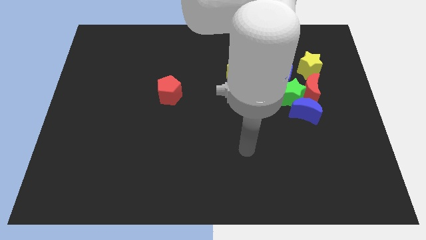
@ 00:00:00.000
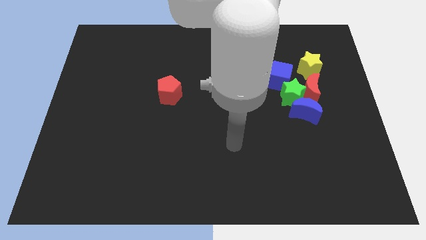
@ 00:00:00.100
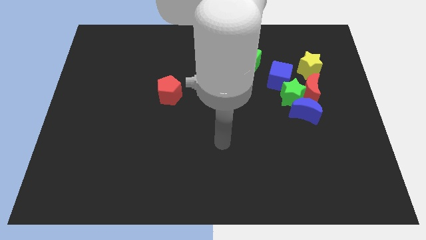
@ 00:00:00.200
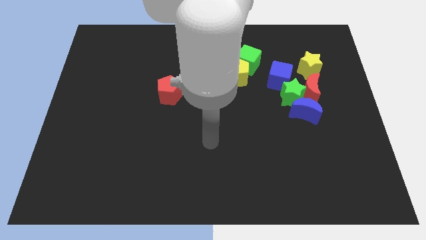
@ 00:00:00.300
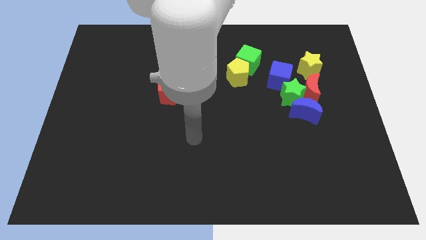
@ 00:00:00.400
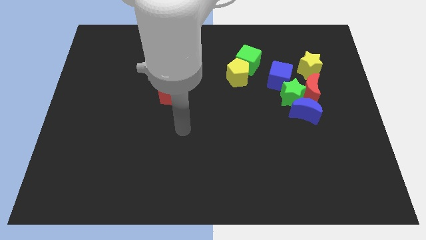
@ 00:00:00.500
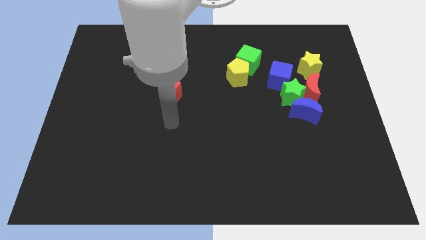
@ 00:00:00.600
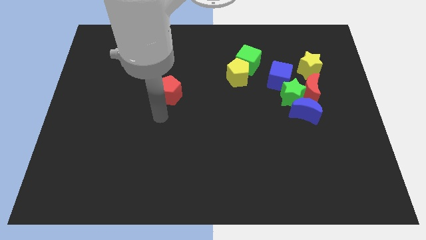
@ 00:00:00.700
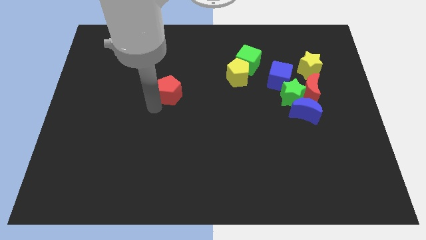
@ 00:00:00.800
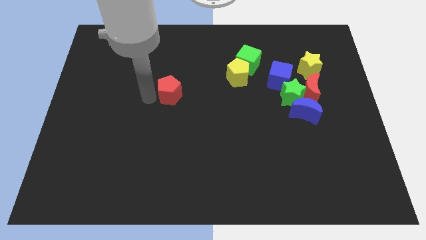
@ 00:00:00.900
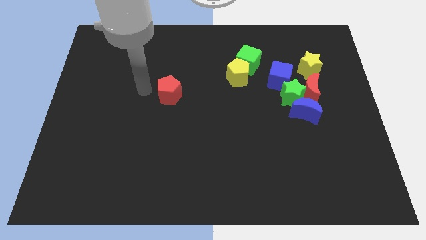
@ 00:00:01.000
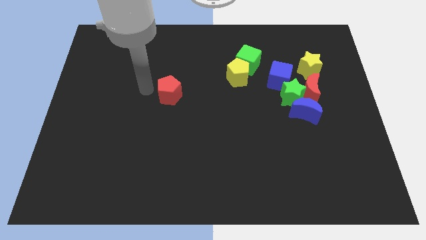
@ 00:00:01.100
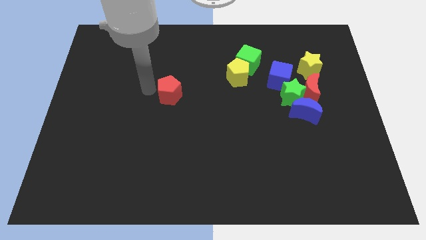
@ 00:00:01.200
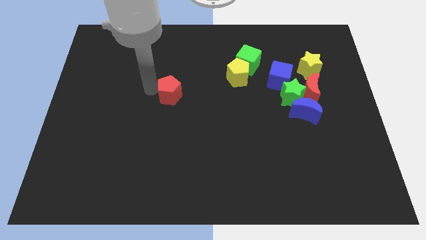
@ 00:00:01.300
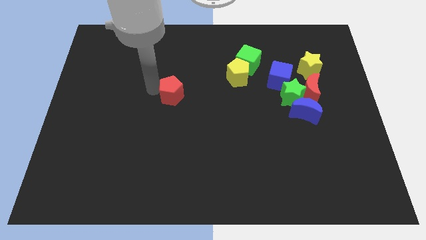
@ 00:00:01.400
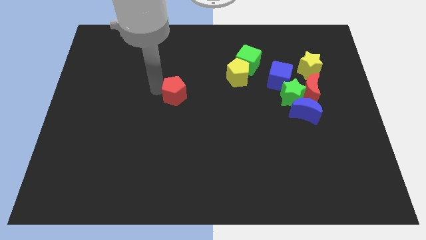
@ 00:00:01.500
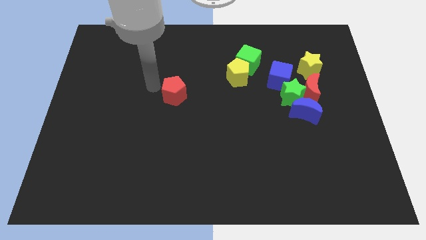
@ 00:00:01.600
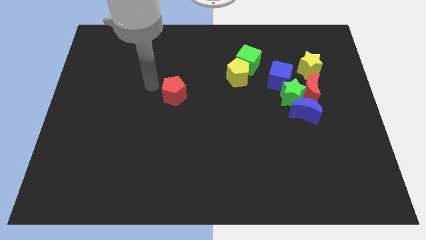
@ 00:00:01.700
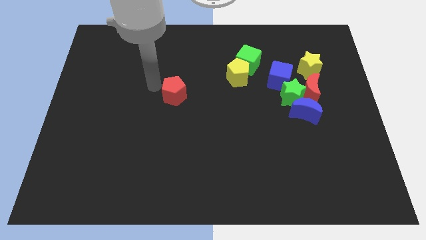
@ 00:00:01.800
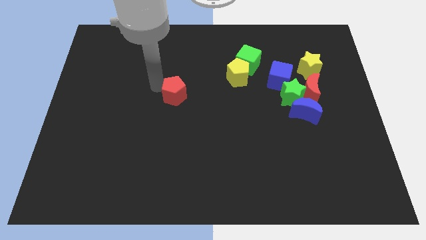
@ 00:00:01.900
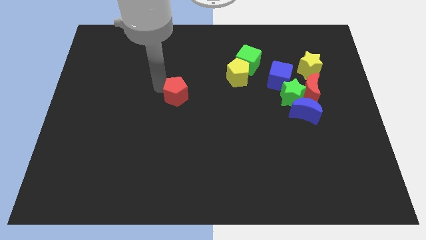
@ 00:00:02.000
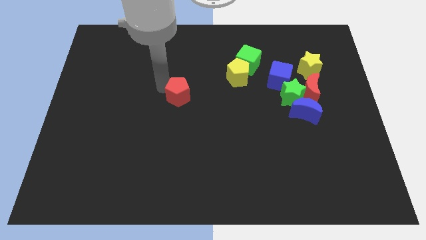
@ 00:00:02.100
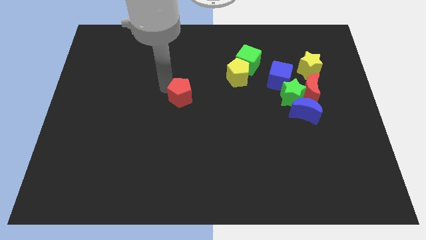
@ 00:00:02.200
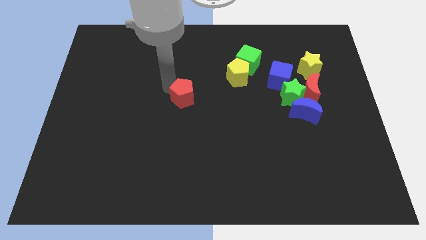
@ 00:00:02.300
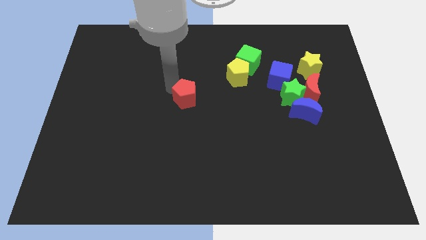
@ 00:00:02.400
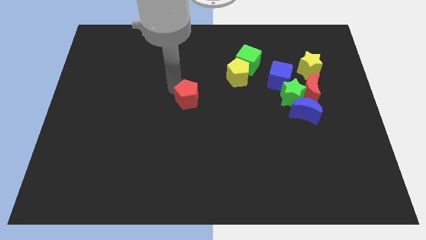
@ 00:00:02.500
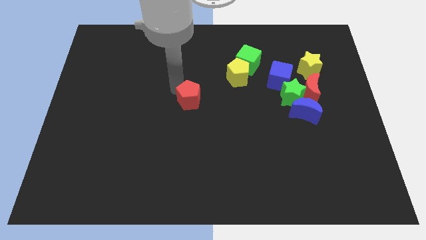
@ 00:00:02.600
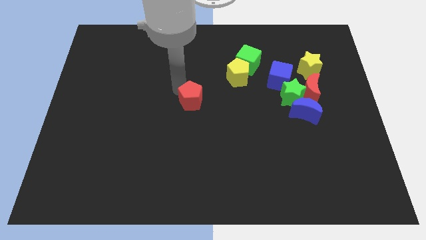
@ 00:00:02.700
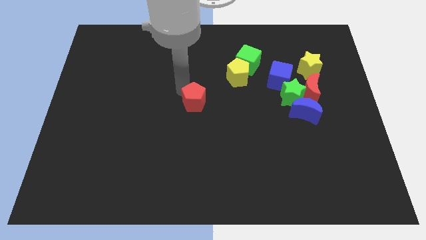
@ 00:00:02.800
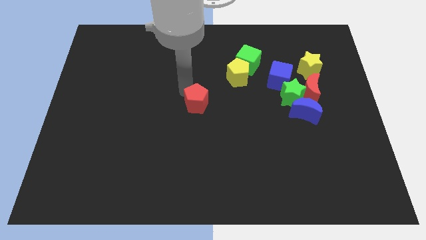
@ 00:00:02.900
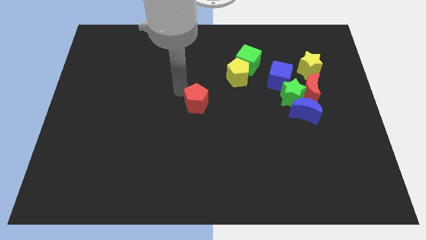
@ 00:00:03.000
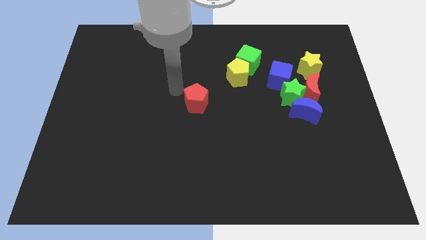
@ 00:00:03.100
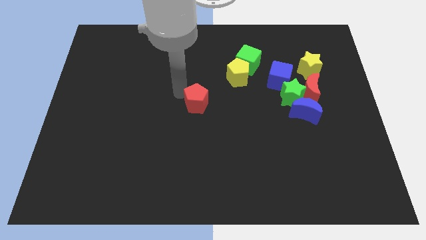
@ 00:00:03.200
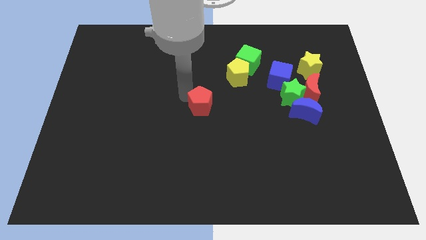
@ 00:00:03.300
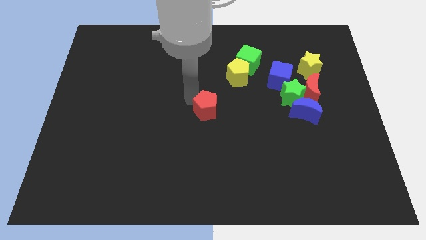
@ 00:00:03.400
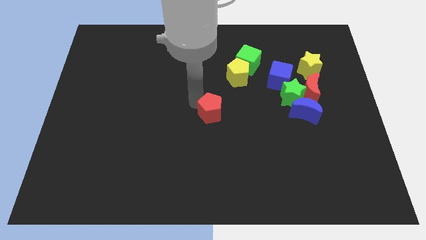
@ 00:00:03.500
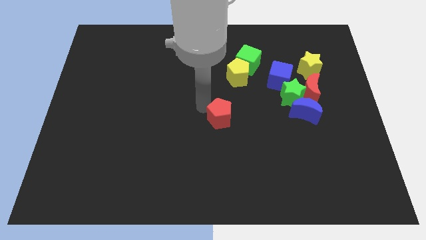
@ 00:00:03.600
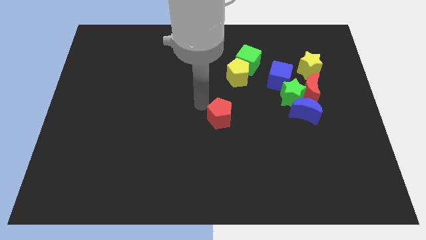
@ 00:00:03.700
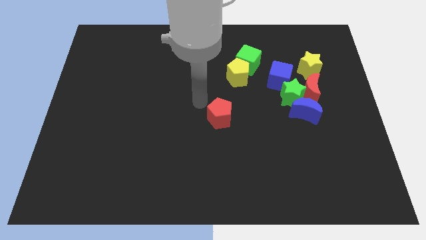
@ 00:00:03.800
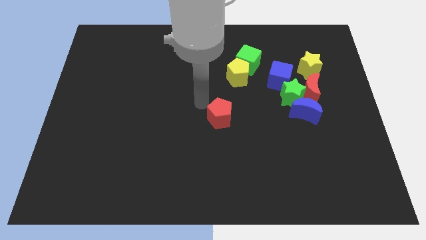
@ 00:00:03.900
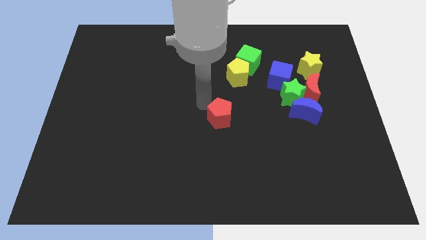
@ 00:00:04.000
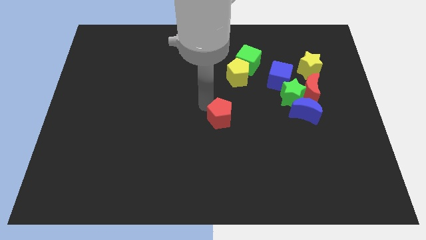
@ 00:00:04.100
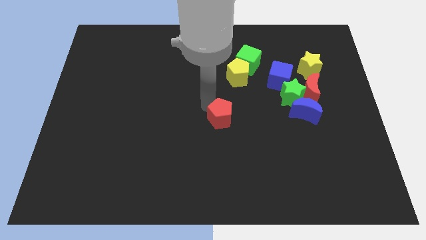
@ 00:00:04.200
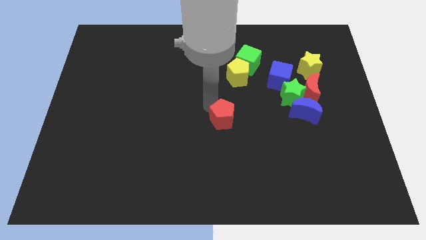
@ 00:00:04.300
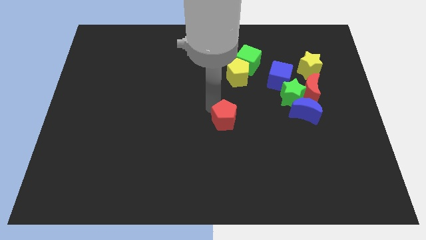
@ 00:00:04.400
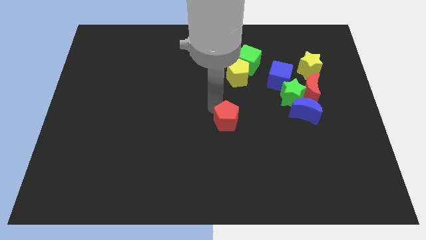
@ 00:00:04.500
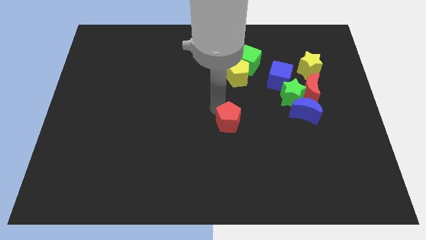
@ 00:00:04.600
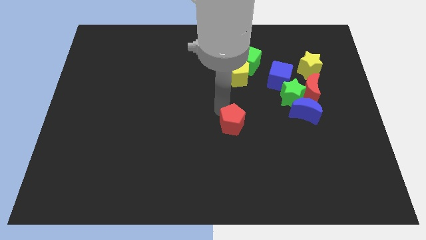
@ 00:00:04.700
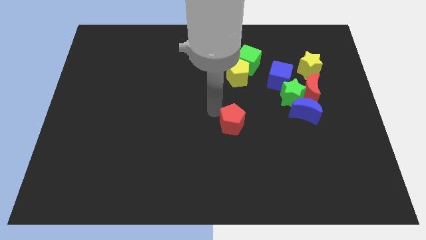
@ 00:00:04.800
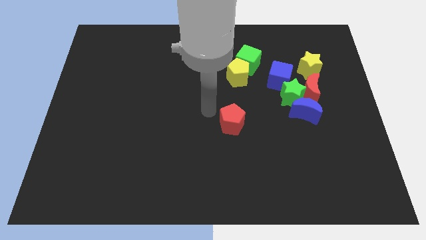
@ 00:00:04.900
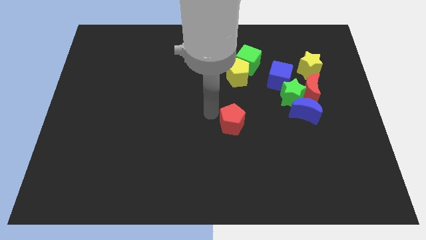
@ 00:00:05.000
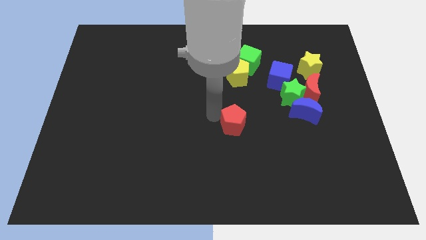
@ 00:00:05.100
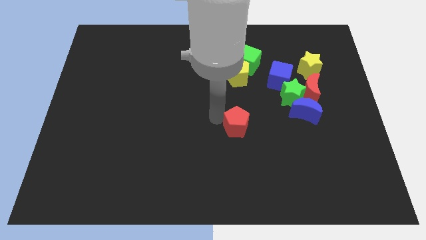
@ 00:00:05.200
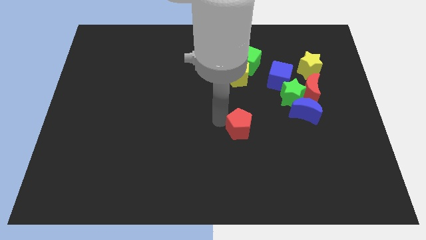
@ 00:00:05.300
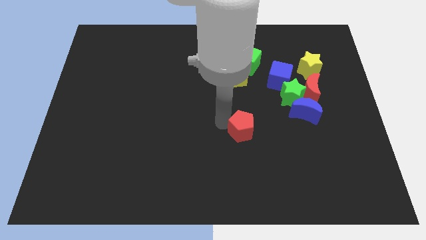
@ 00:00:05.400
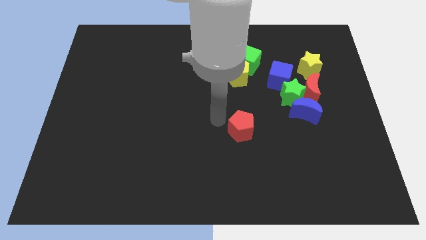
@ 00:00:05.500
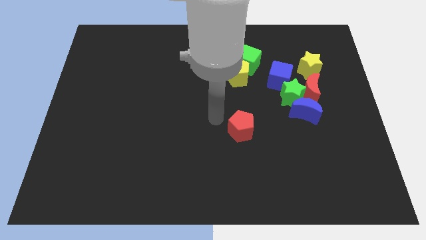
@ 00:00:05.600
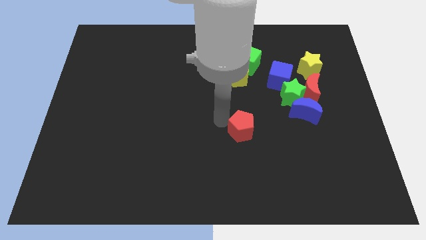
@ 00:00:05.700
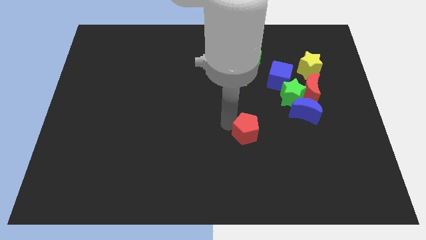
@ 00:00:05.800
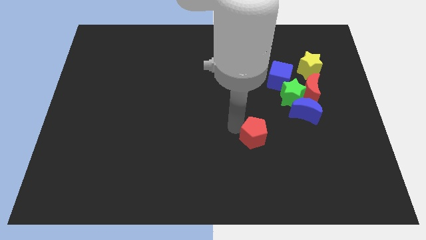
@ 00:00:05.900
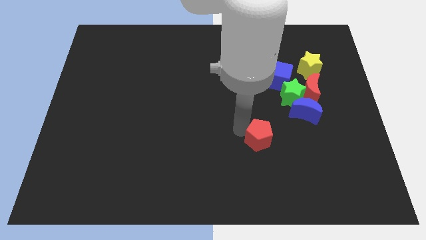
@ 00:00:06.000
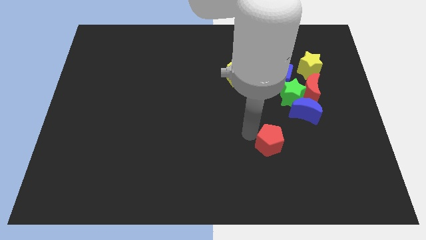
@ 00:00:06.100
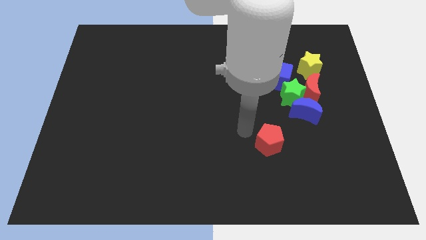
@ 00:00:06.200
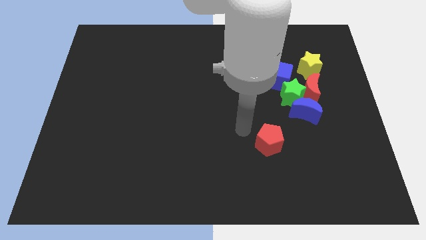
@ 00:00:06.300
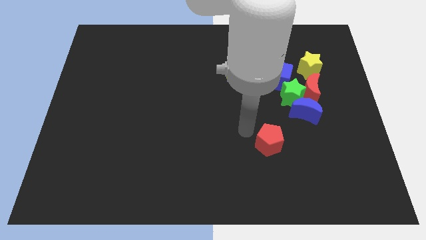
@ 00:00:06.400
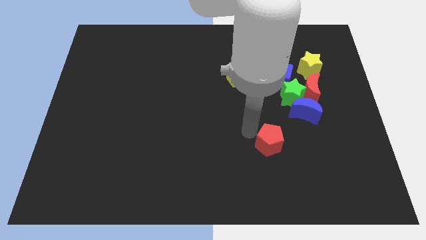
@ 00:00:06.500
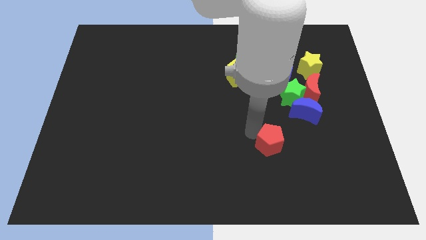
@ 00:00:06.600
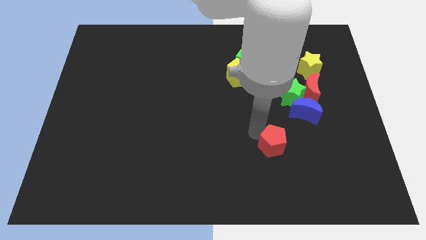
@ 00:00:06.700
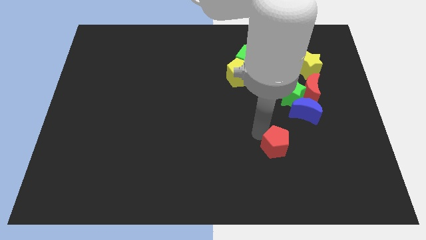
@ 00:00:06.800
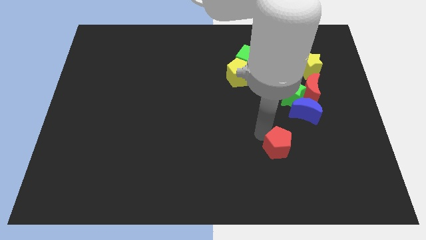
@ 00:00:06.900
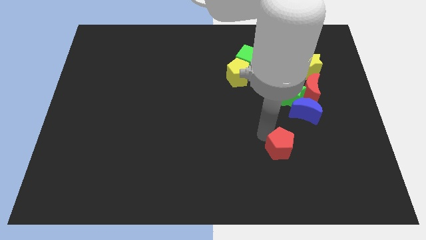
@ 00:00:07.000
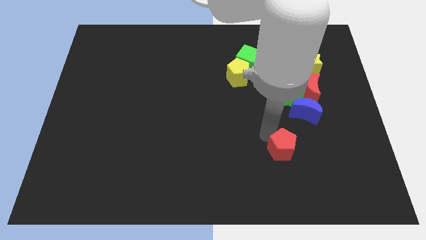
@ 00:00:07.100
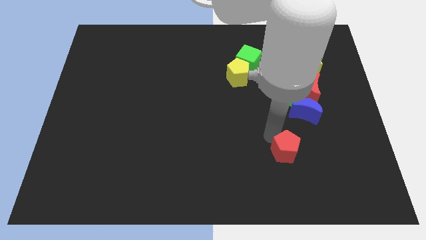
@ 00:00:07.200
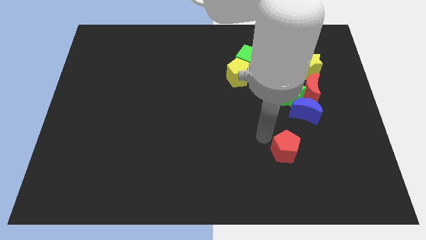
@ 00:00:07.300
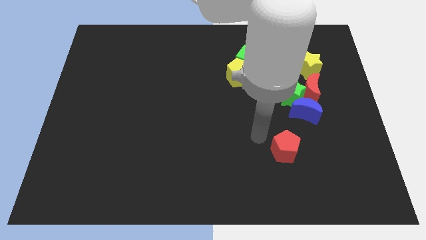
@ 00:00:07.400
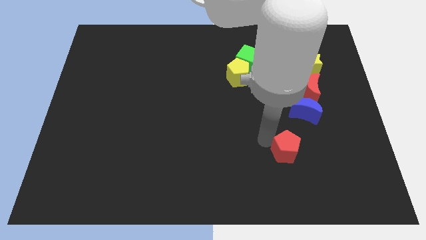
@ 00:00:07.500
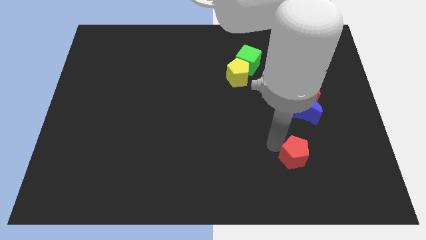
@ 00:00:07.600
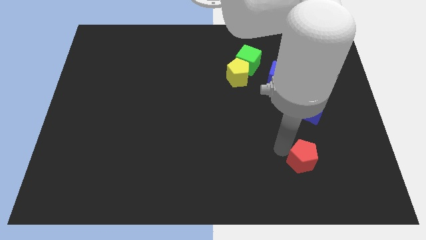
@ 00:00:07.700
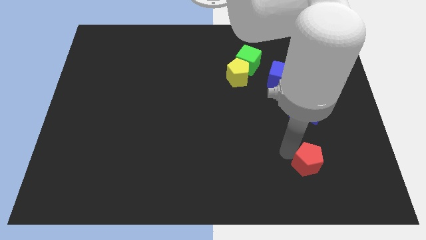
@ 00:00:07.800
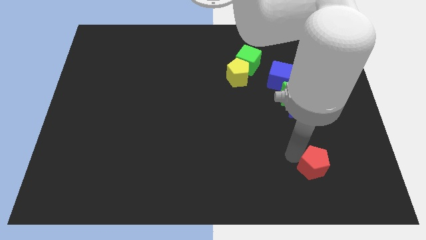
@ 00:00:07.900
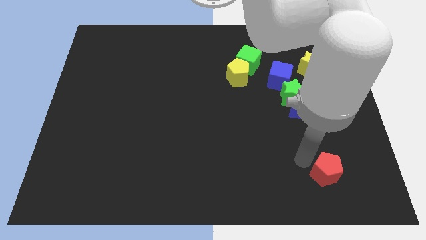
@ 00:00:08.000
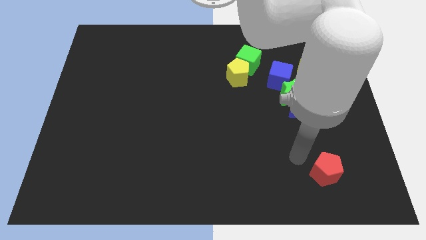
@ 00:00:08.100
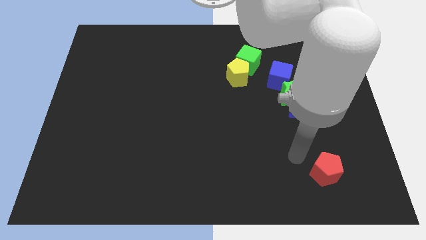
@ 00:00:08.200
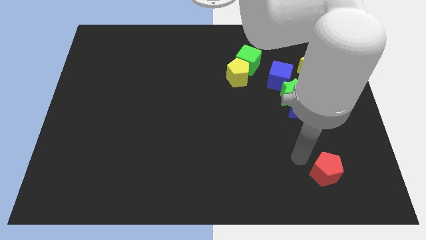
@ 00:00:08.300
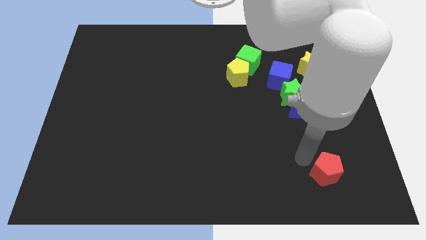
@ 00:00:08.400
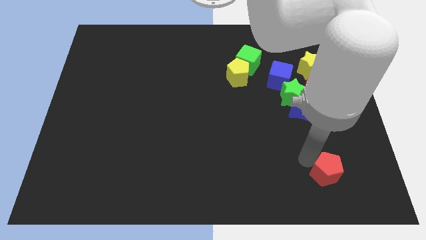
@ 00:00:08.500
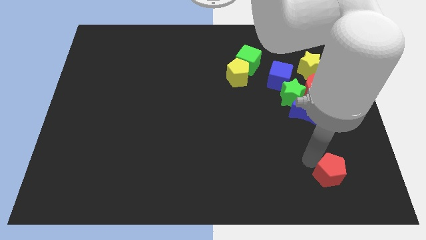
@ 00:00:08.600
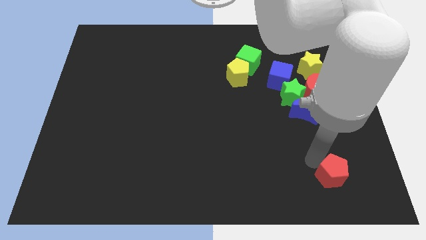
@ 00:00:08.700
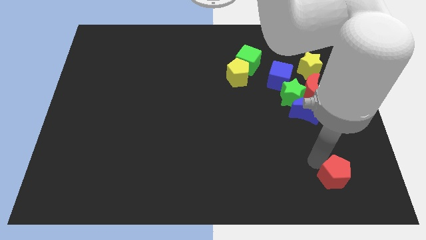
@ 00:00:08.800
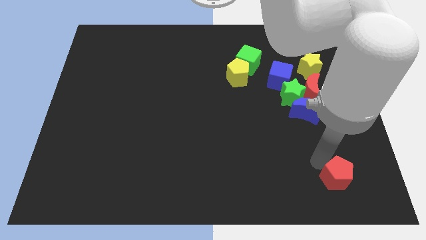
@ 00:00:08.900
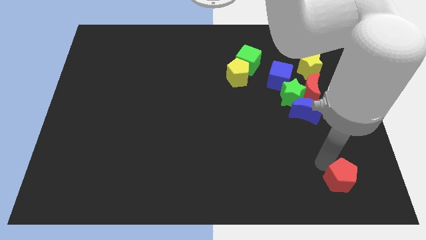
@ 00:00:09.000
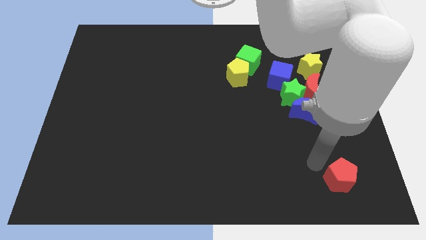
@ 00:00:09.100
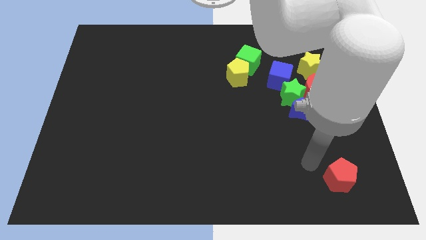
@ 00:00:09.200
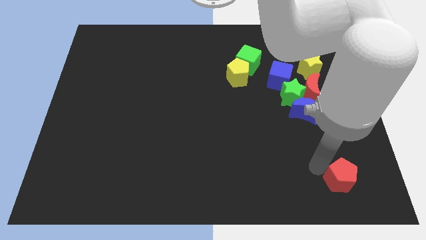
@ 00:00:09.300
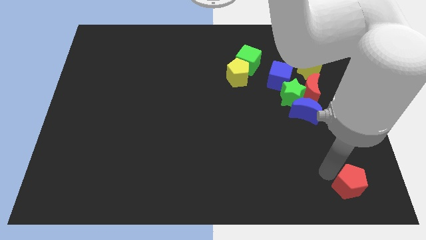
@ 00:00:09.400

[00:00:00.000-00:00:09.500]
put the red pentagon to the bottom right
